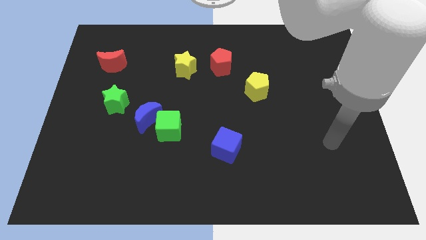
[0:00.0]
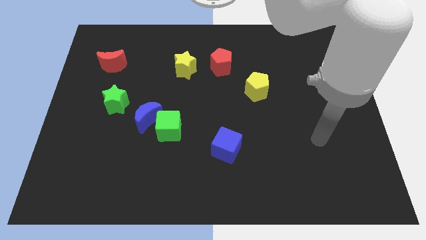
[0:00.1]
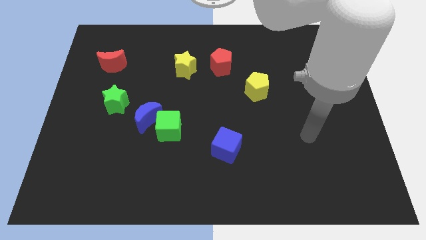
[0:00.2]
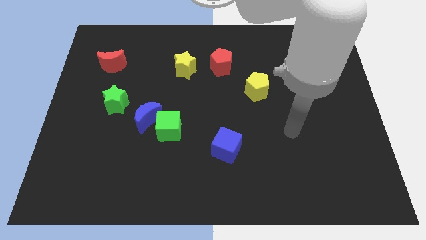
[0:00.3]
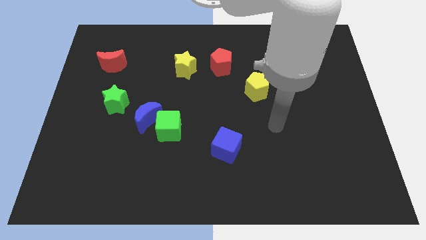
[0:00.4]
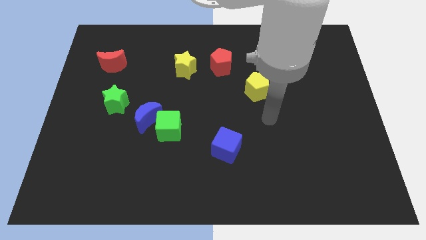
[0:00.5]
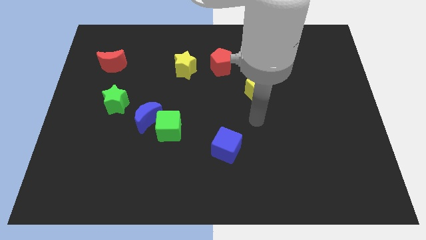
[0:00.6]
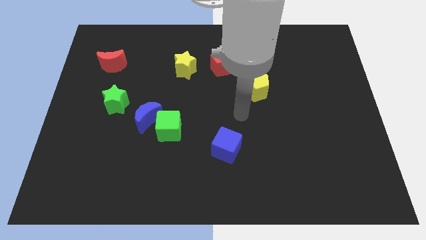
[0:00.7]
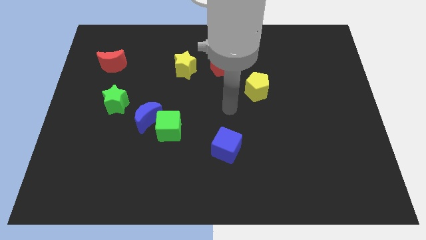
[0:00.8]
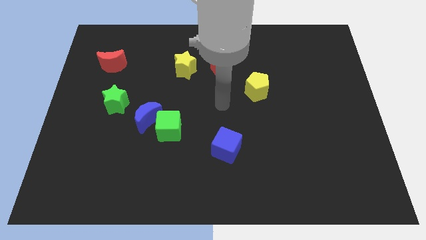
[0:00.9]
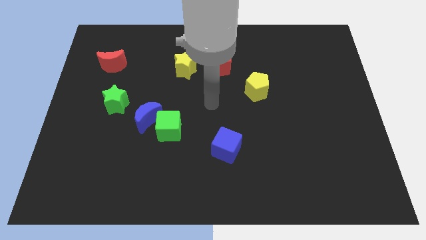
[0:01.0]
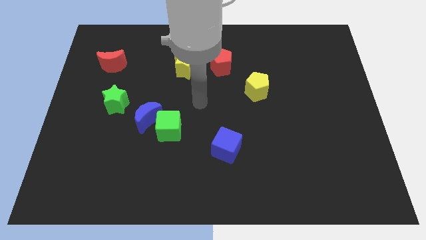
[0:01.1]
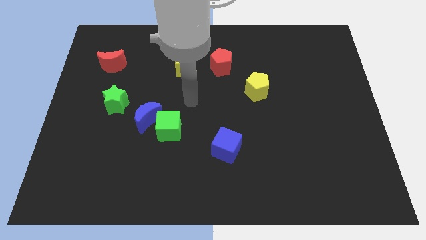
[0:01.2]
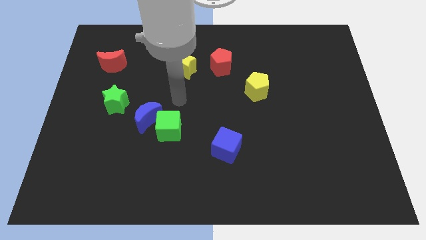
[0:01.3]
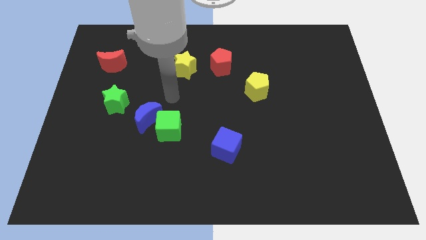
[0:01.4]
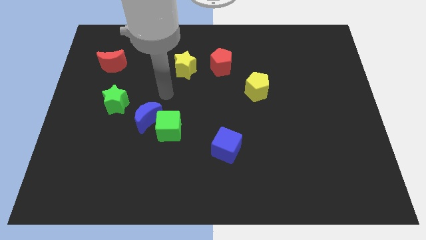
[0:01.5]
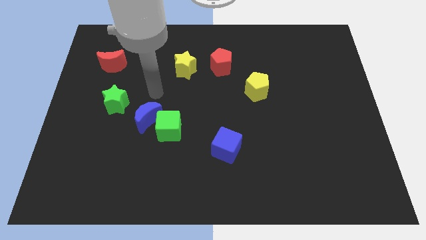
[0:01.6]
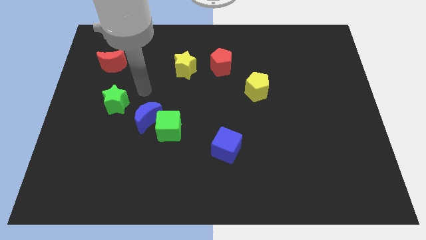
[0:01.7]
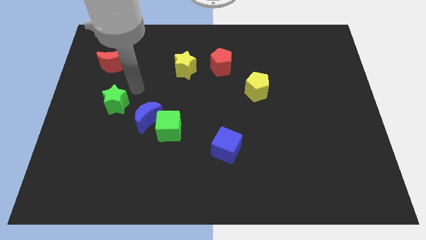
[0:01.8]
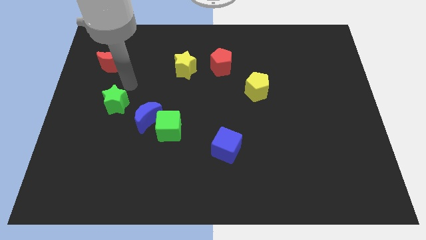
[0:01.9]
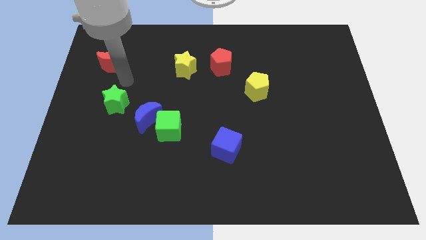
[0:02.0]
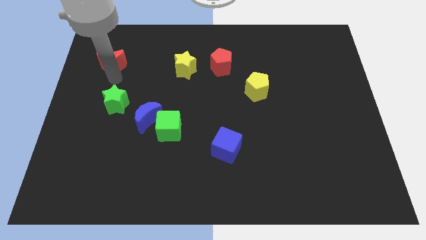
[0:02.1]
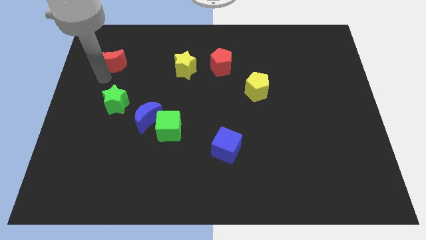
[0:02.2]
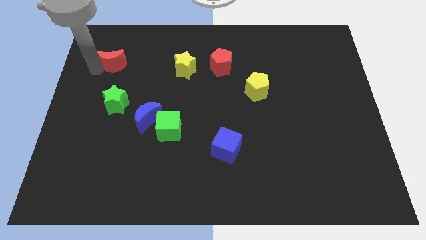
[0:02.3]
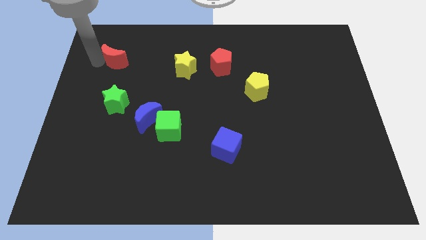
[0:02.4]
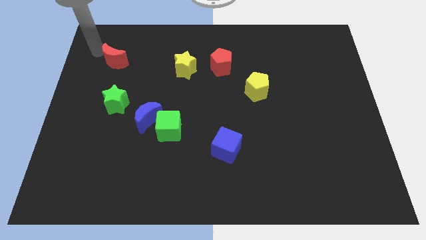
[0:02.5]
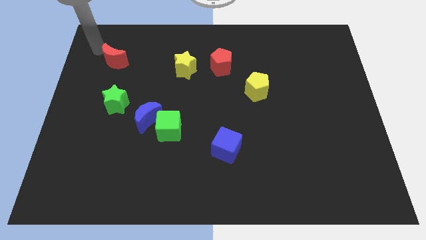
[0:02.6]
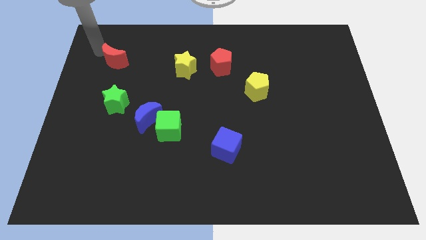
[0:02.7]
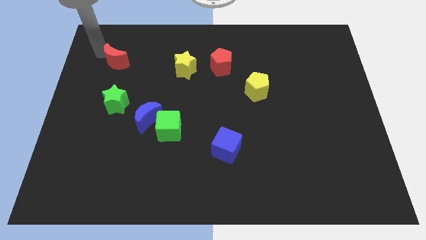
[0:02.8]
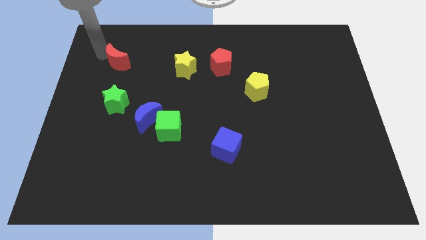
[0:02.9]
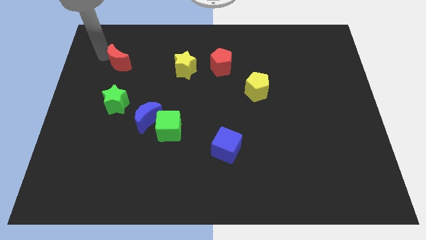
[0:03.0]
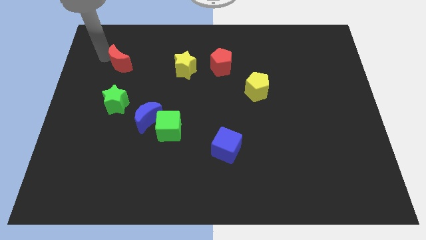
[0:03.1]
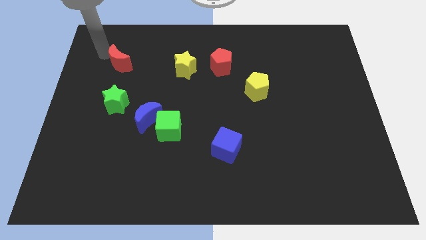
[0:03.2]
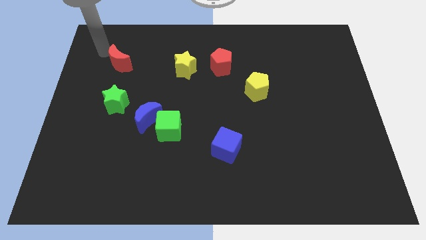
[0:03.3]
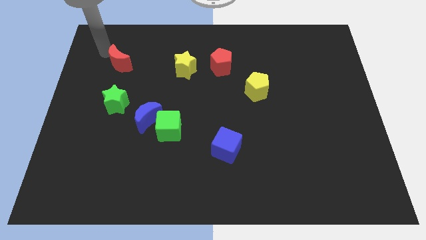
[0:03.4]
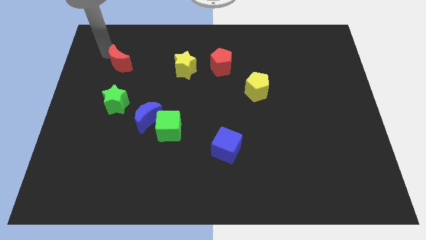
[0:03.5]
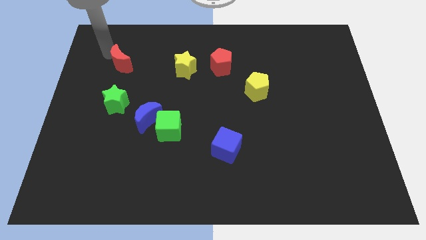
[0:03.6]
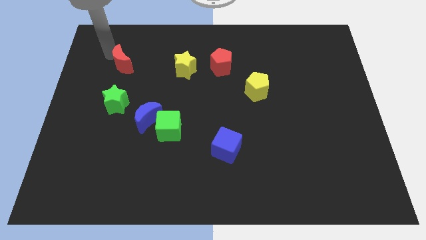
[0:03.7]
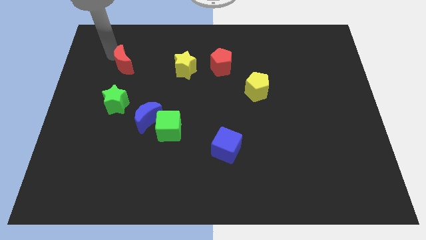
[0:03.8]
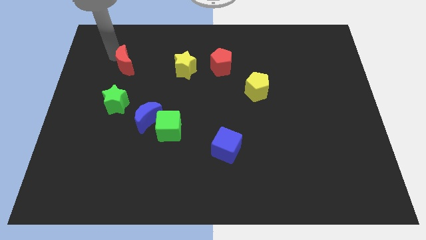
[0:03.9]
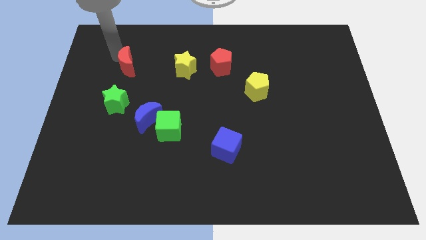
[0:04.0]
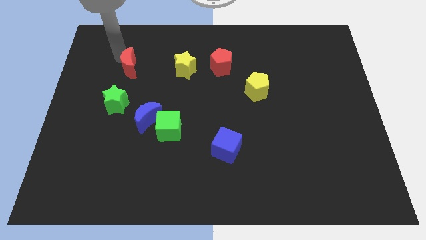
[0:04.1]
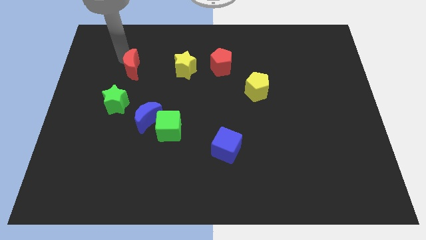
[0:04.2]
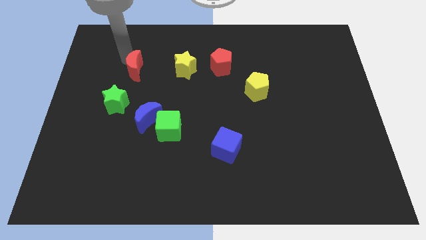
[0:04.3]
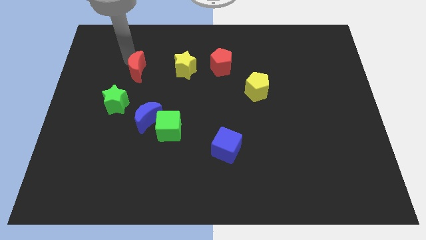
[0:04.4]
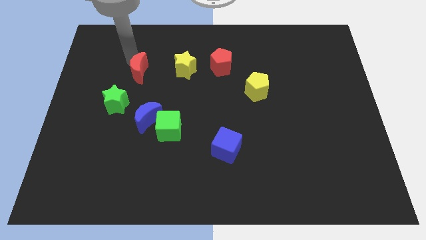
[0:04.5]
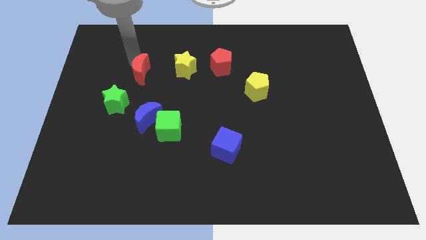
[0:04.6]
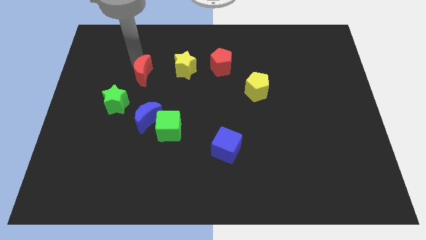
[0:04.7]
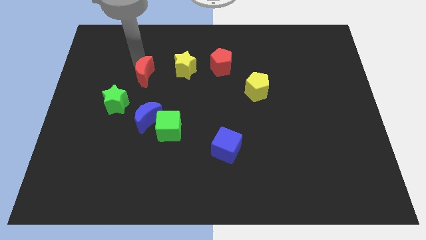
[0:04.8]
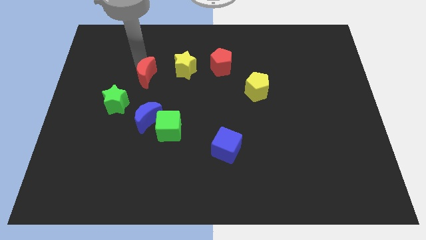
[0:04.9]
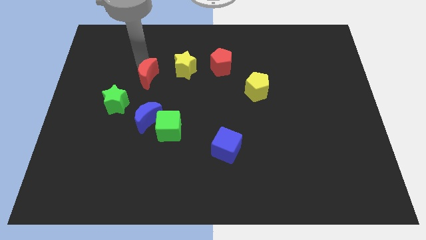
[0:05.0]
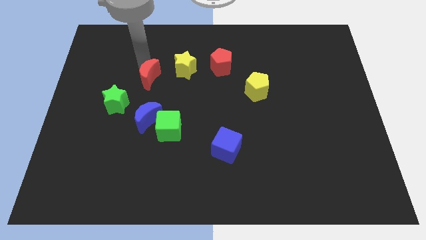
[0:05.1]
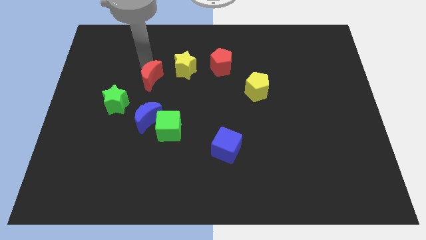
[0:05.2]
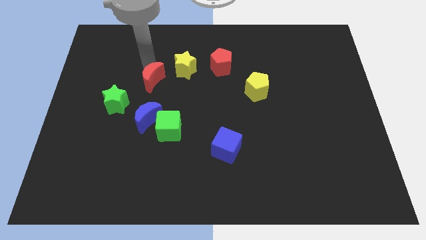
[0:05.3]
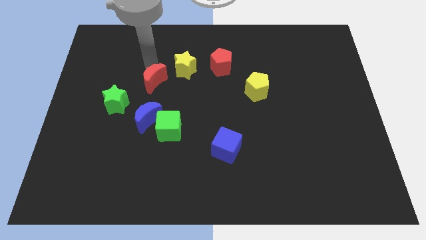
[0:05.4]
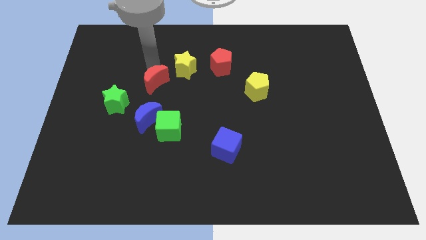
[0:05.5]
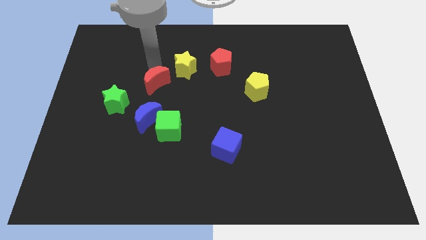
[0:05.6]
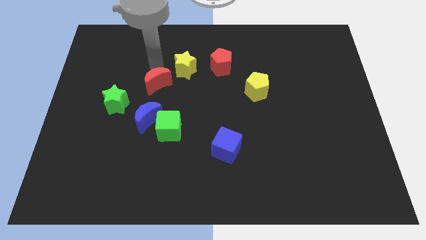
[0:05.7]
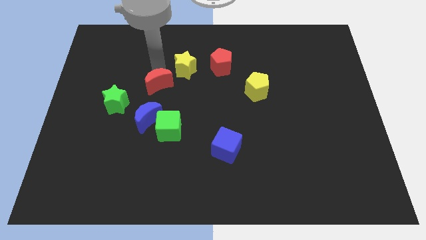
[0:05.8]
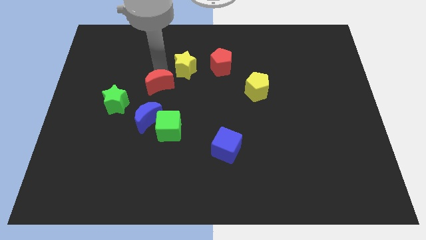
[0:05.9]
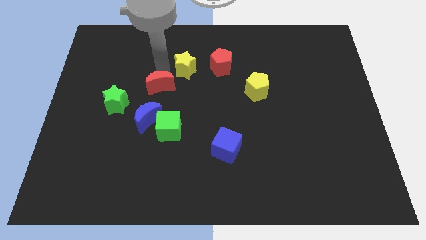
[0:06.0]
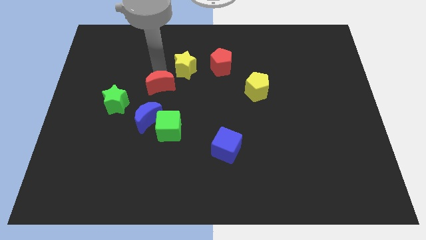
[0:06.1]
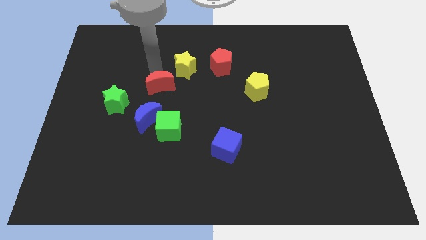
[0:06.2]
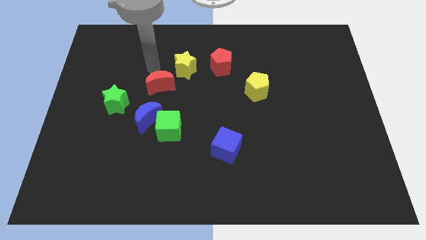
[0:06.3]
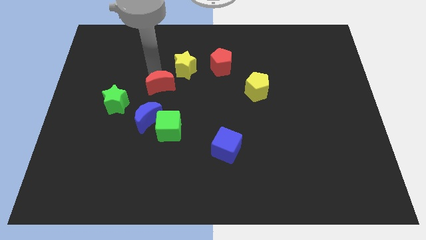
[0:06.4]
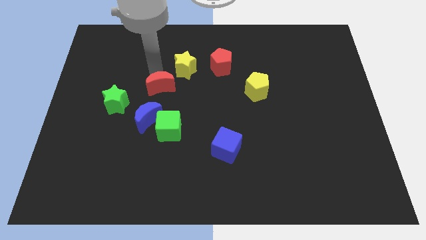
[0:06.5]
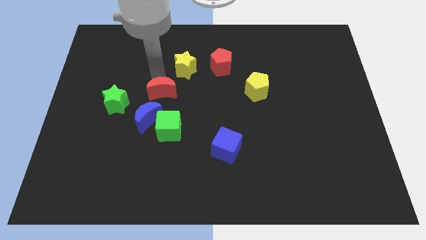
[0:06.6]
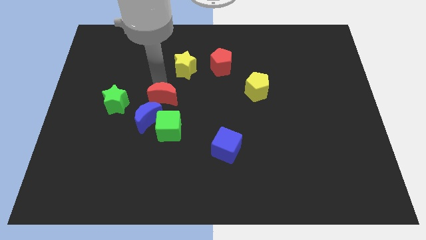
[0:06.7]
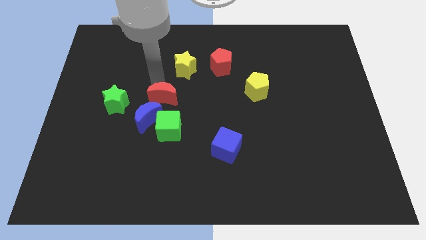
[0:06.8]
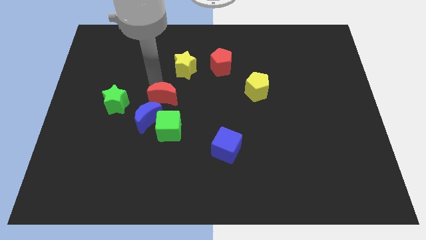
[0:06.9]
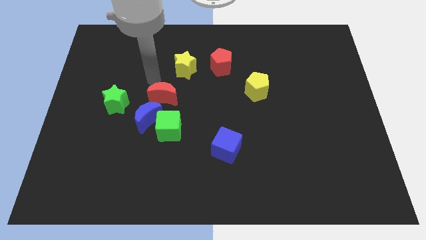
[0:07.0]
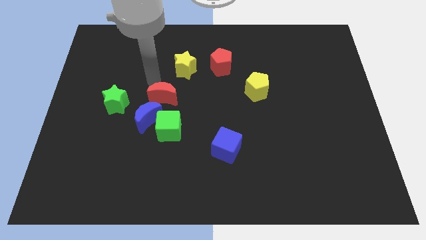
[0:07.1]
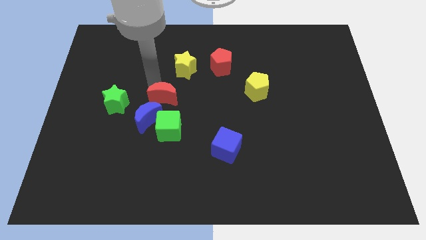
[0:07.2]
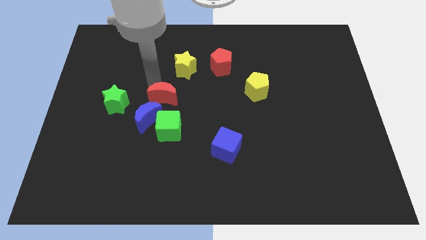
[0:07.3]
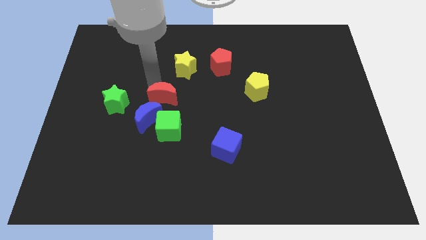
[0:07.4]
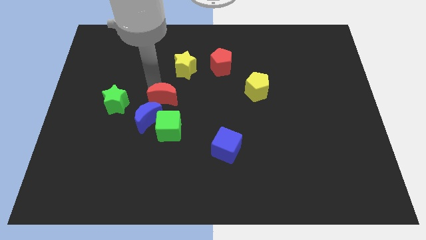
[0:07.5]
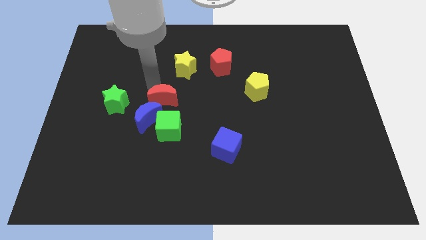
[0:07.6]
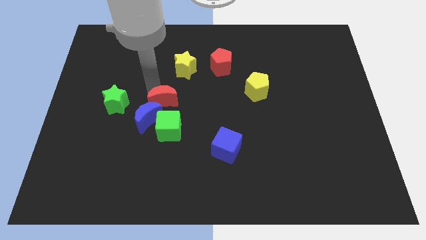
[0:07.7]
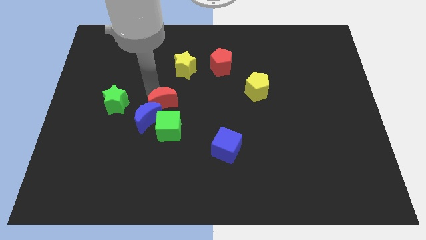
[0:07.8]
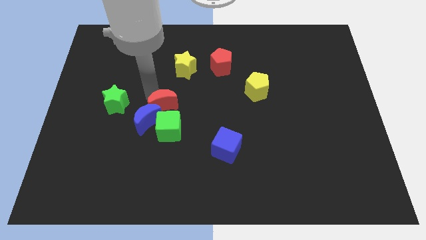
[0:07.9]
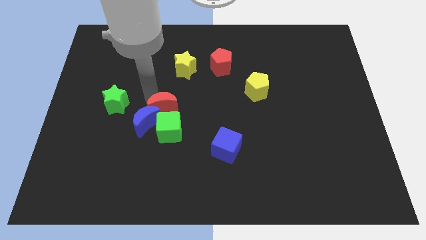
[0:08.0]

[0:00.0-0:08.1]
push the red moon downwards and to the right
